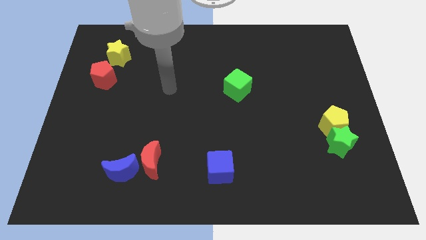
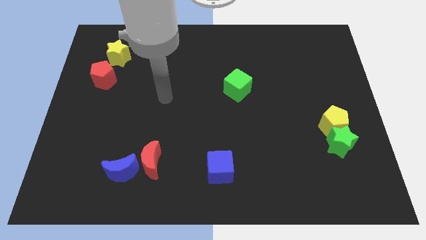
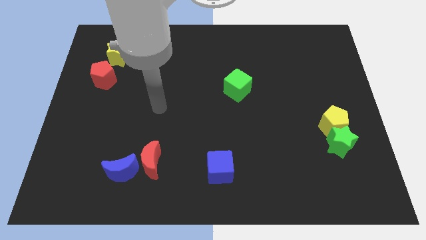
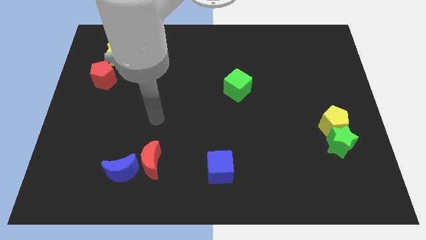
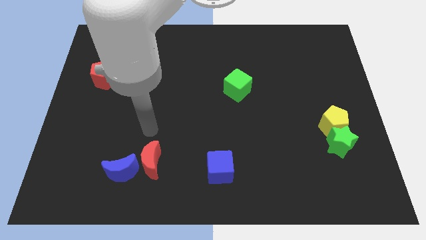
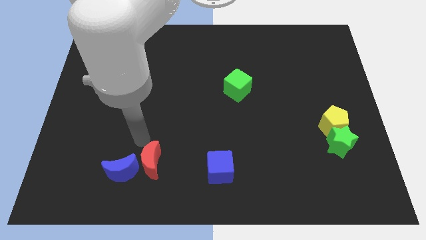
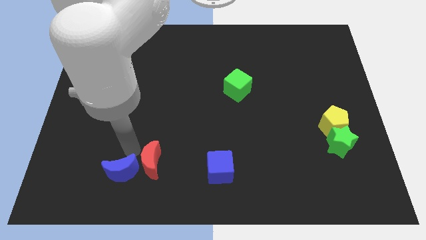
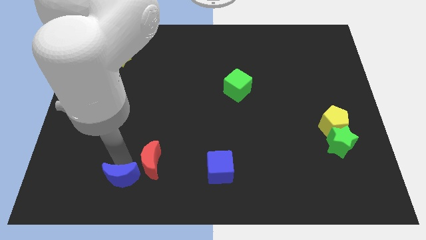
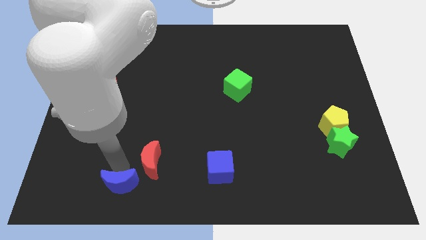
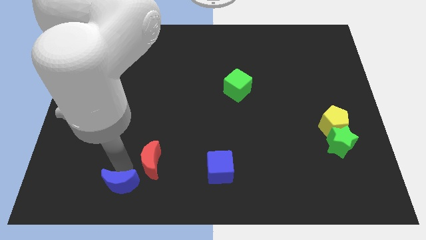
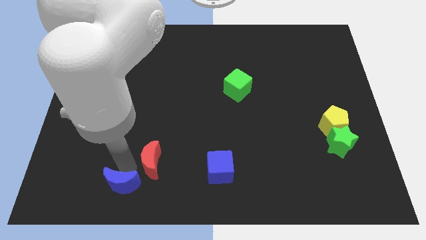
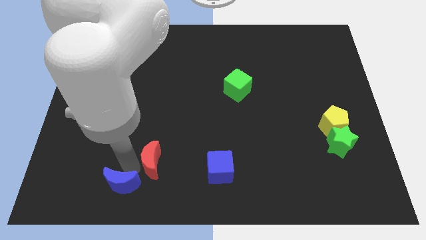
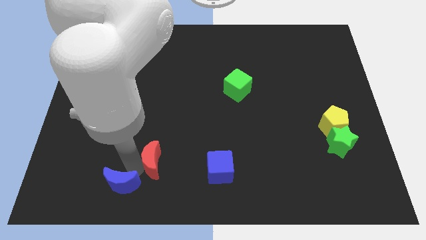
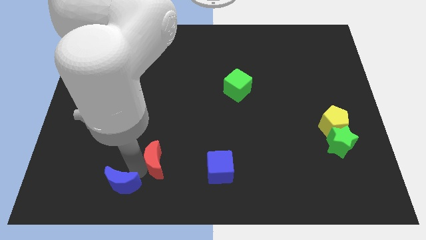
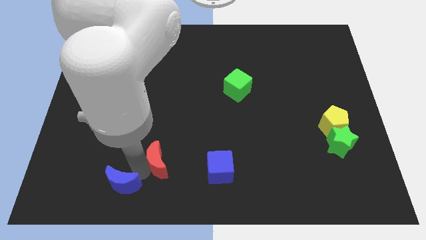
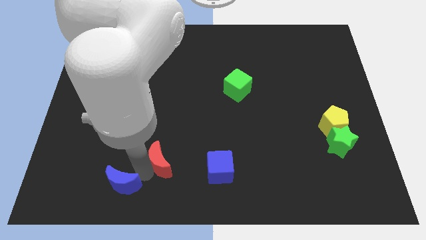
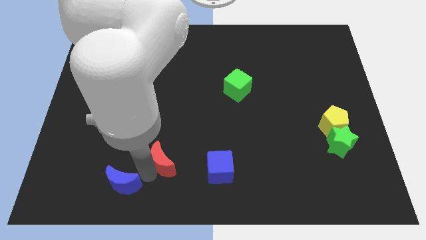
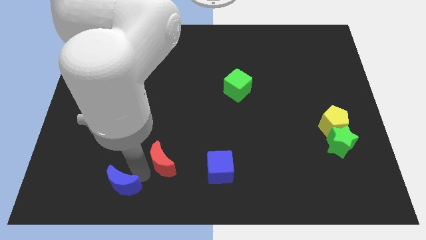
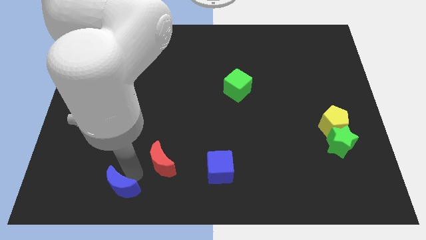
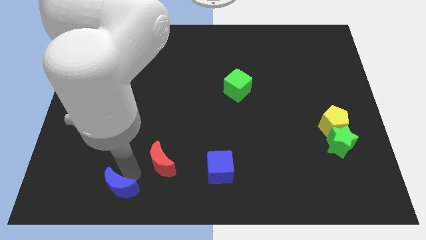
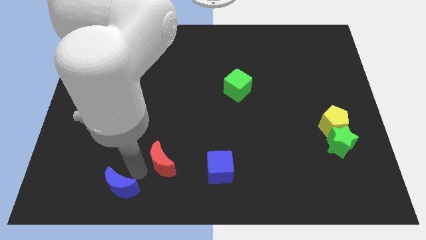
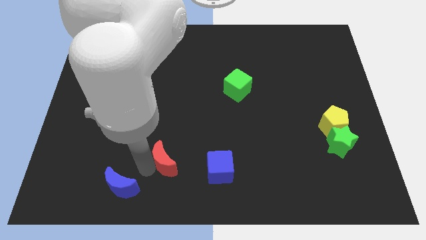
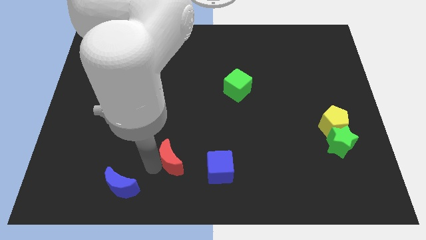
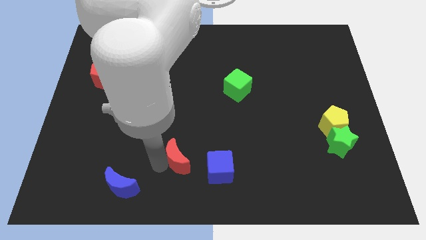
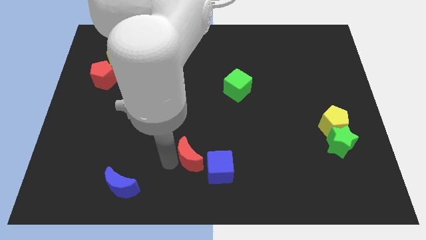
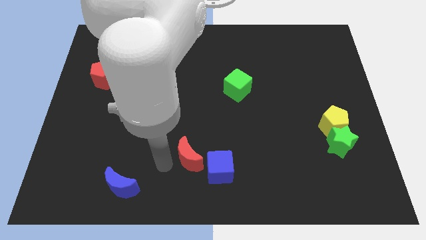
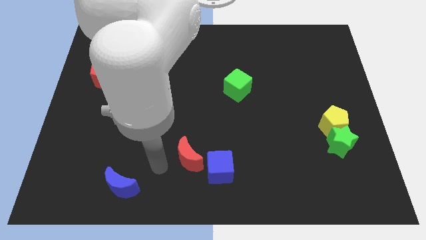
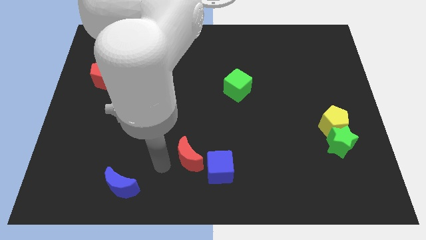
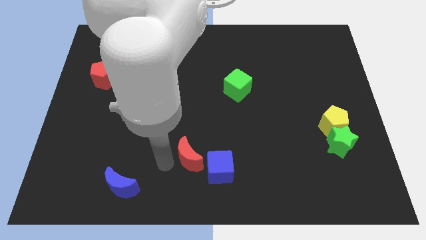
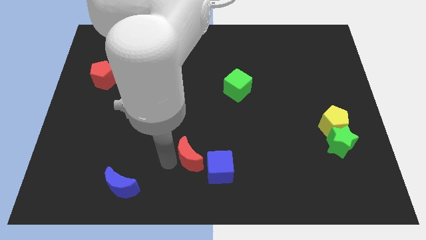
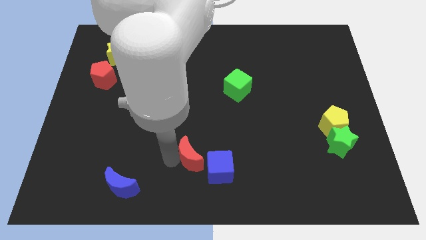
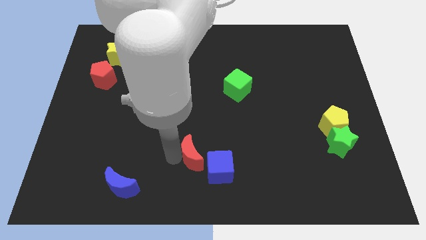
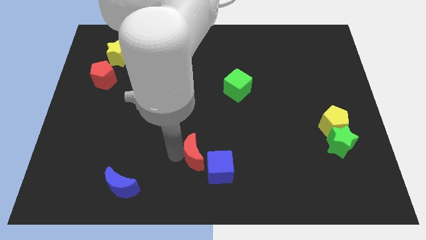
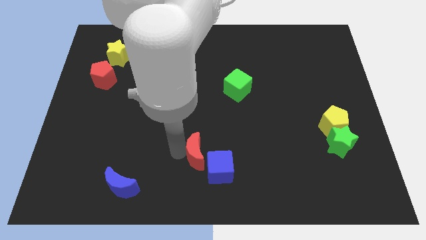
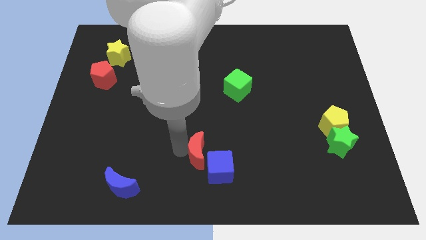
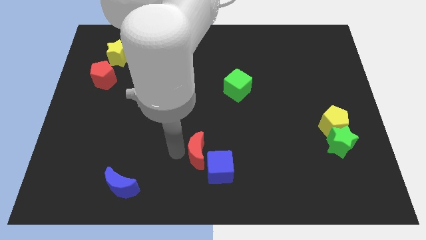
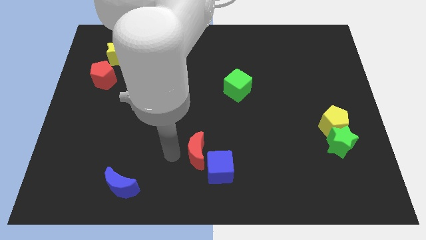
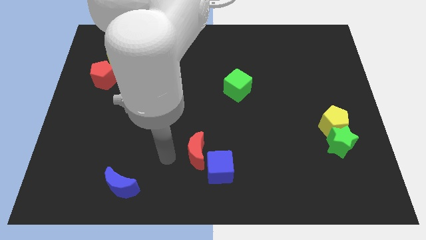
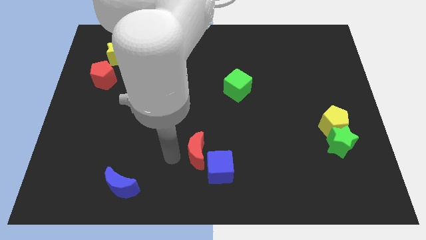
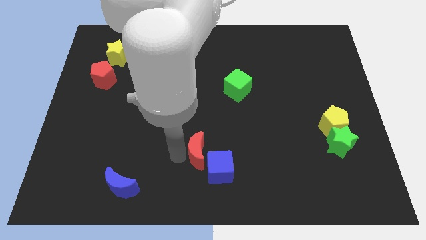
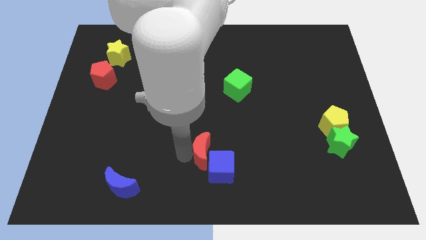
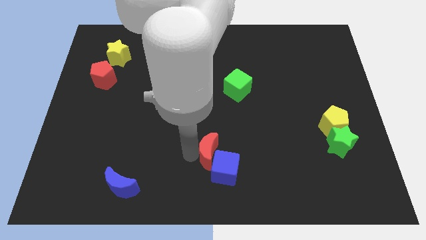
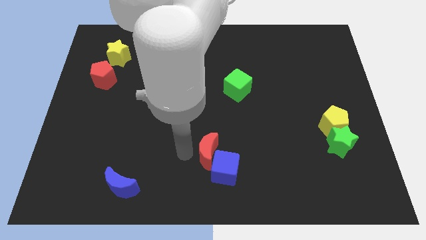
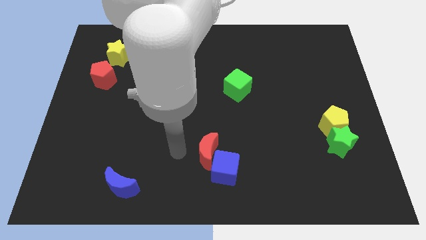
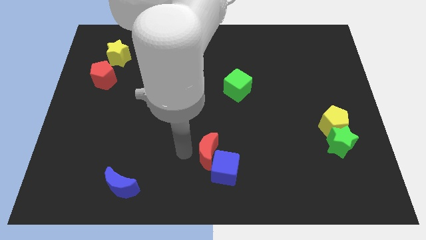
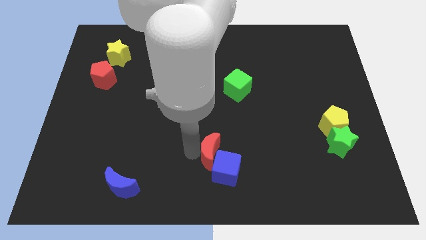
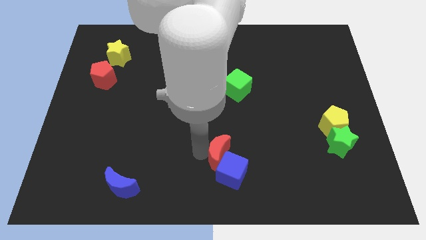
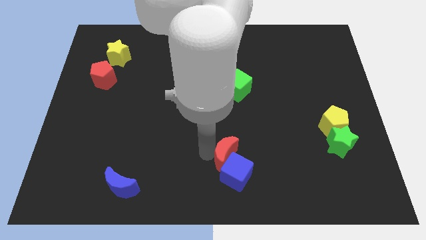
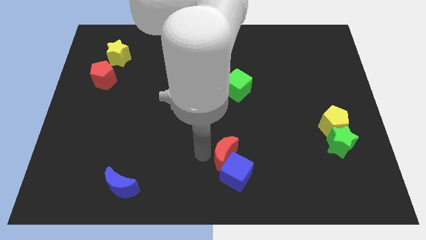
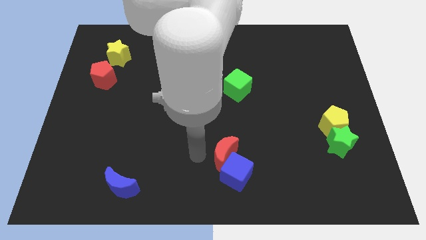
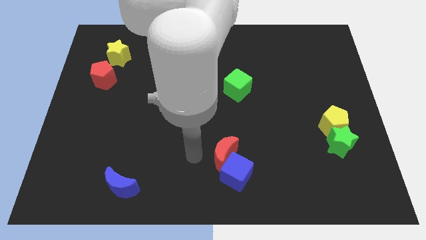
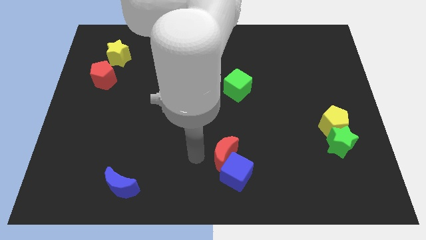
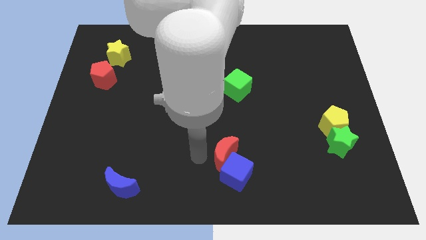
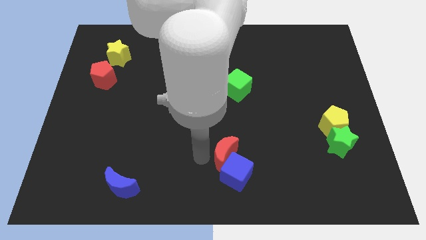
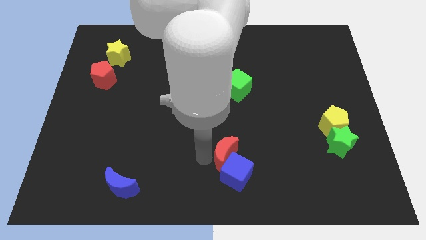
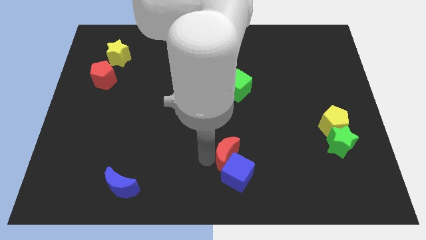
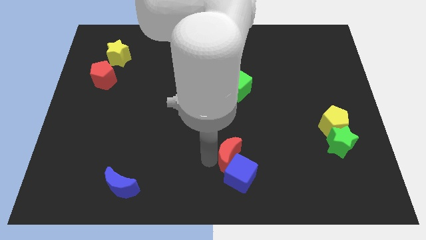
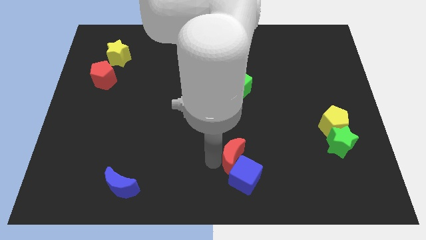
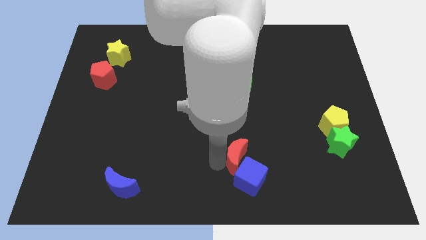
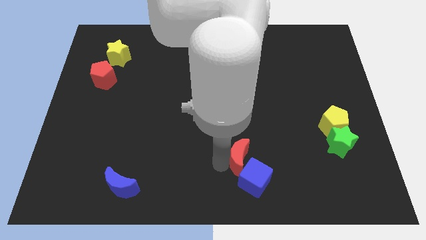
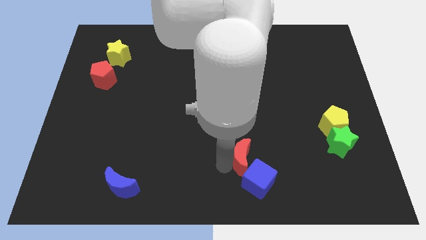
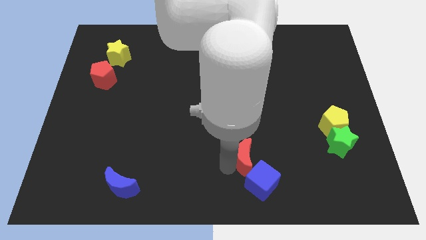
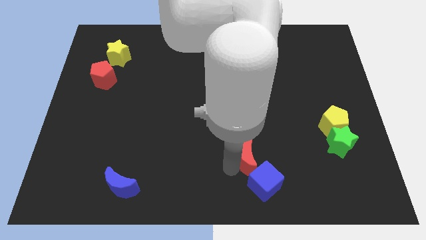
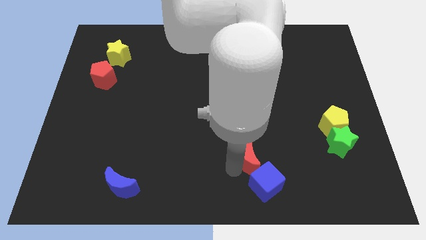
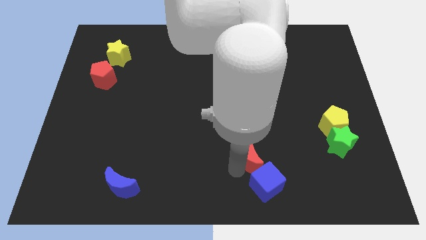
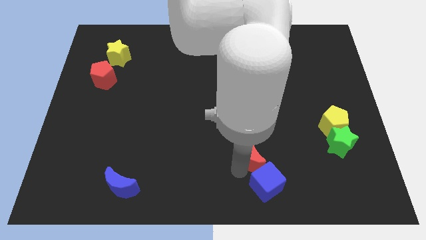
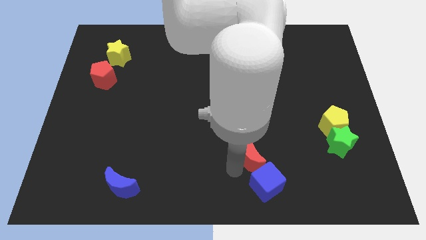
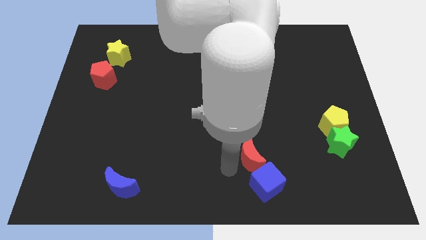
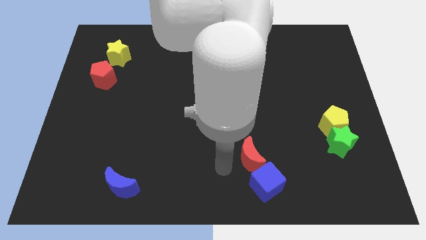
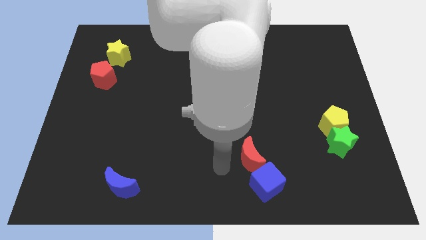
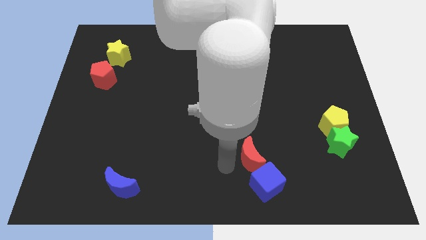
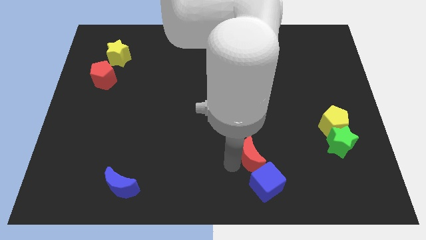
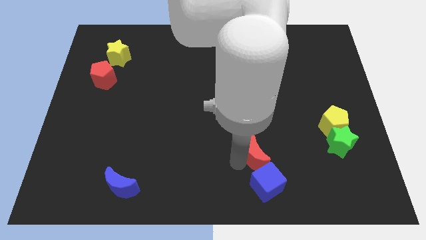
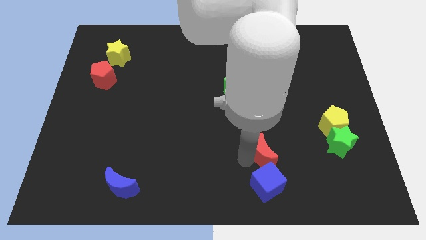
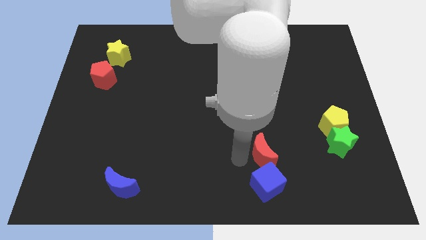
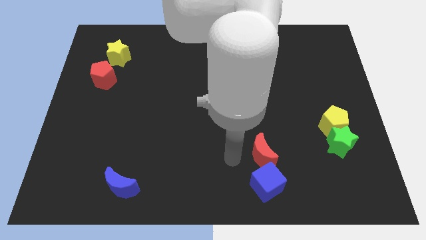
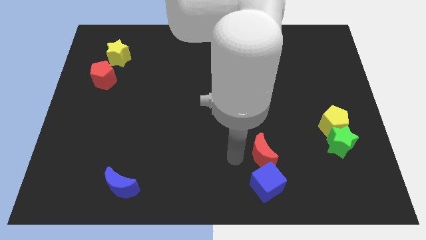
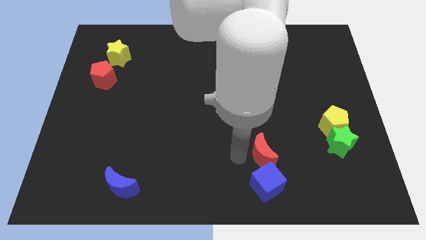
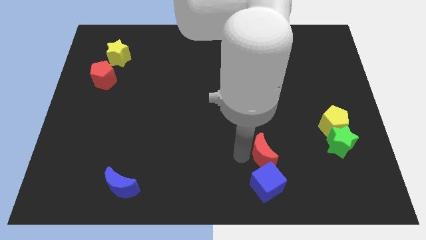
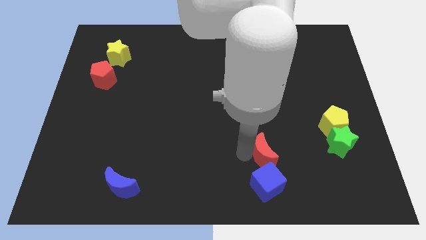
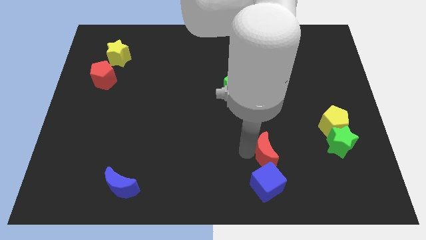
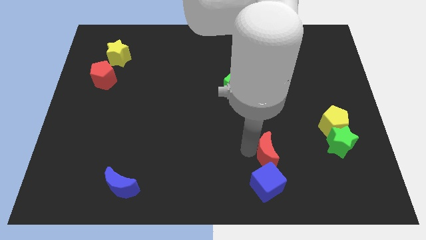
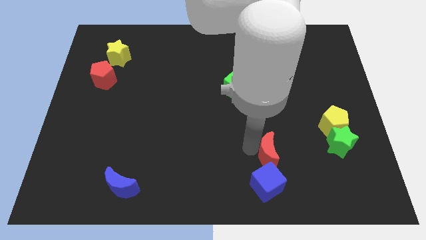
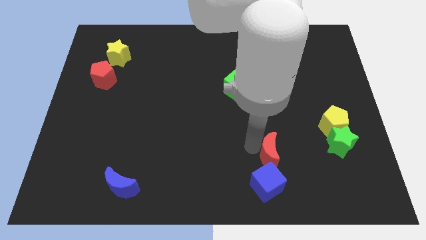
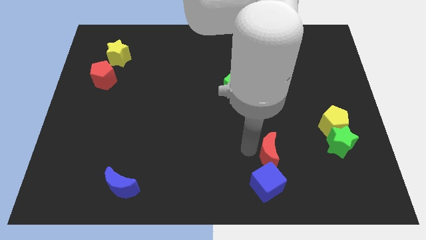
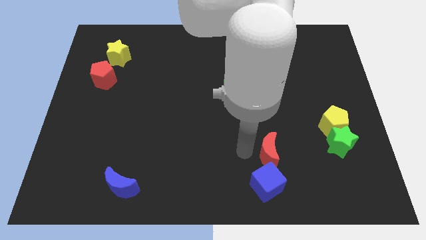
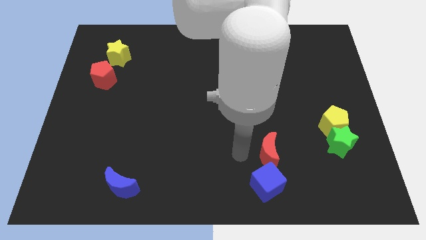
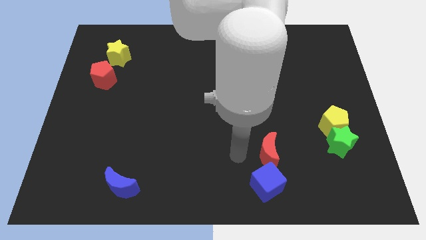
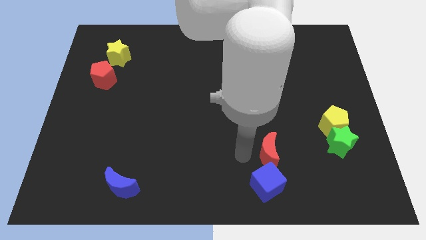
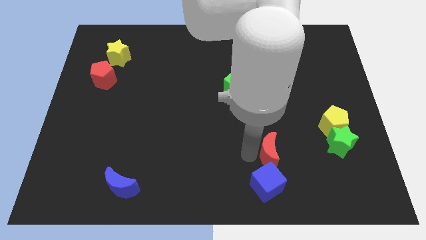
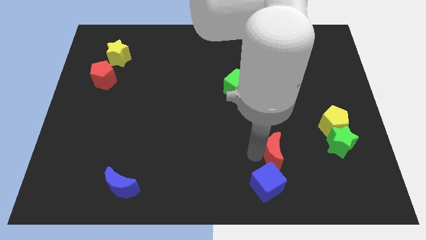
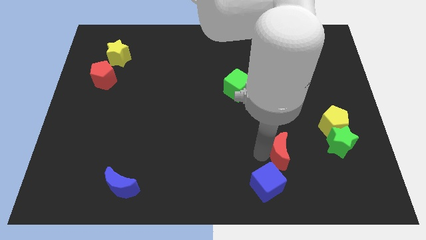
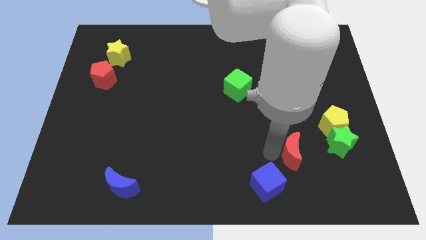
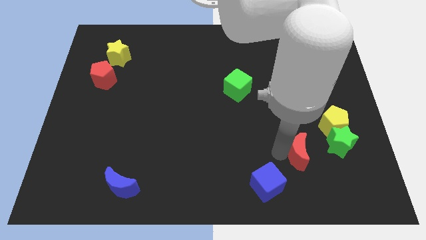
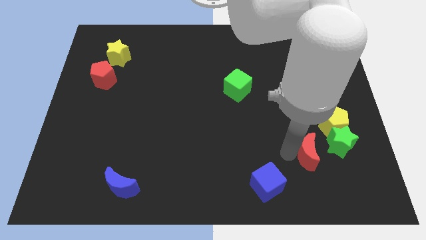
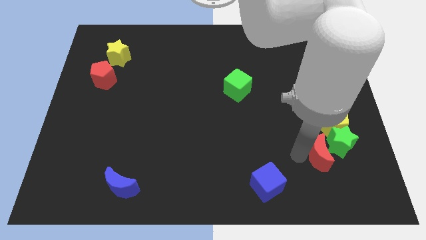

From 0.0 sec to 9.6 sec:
slide the red moon close to the green star
